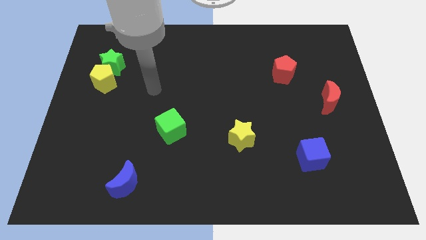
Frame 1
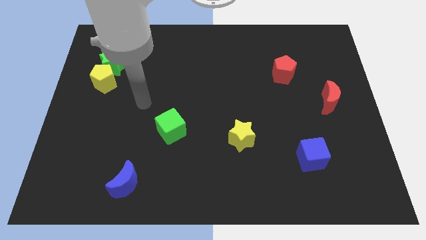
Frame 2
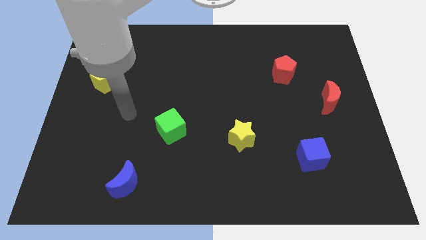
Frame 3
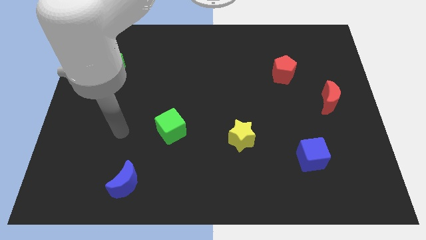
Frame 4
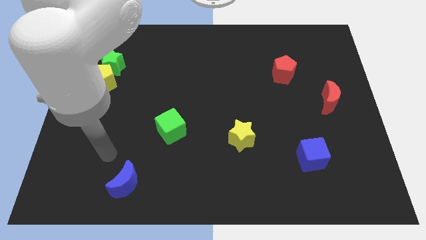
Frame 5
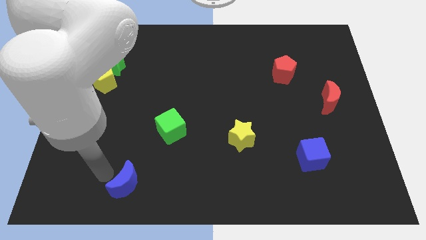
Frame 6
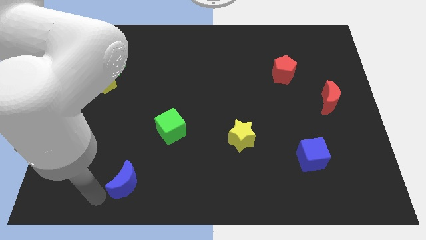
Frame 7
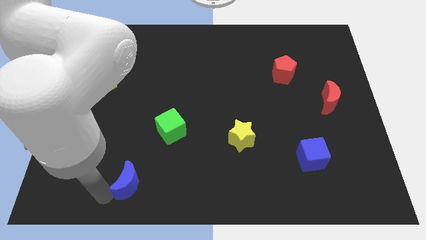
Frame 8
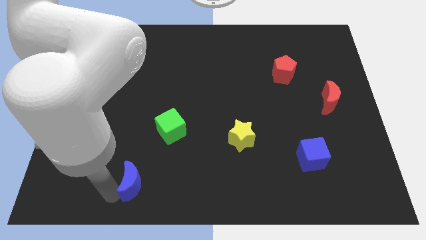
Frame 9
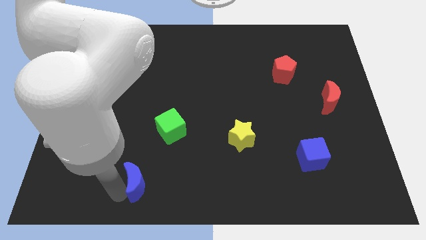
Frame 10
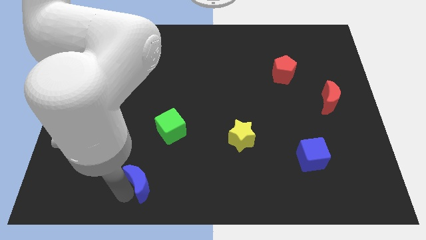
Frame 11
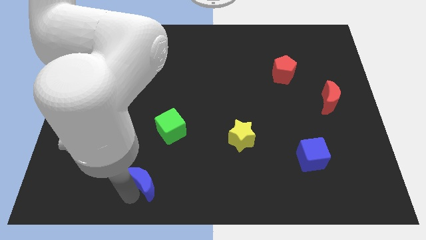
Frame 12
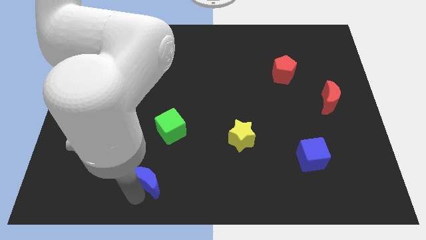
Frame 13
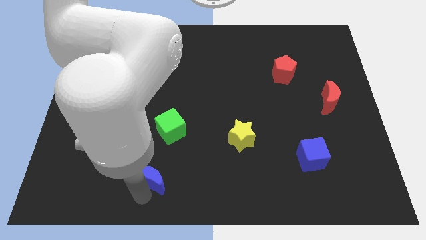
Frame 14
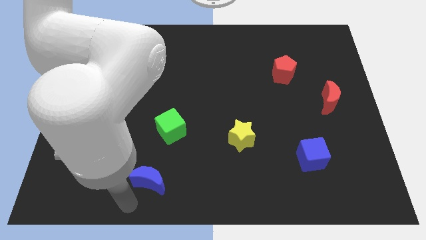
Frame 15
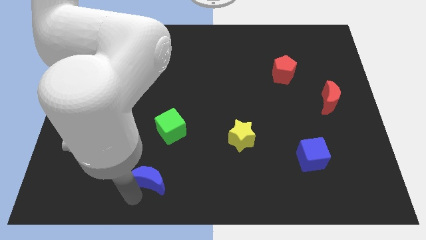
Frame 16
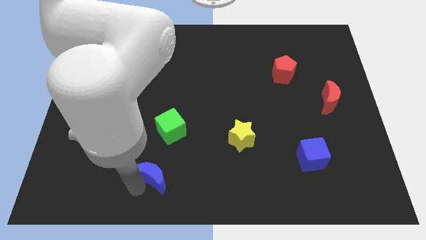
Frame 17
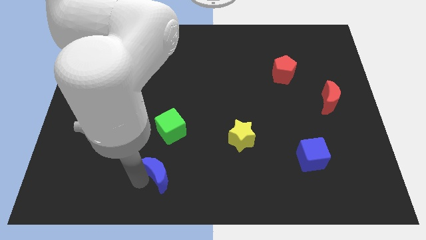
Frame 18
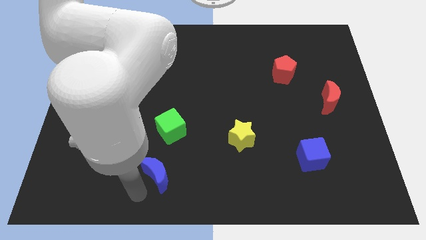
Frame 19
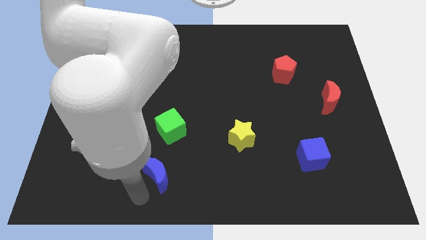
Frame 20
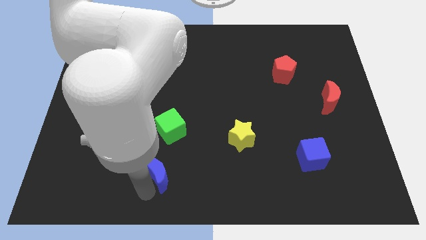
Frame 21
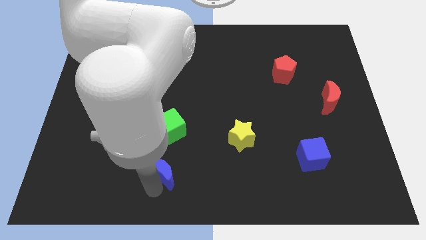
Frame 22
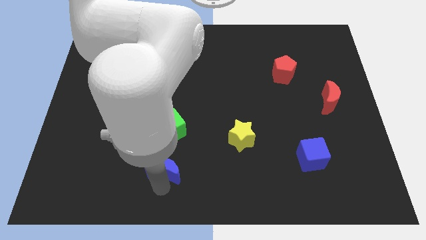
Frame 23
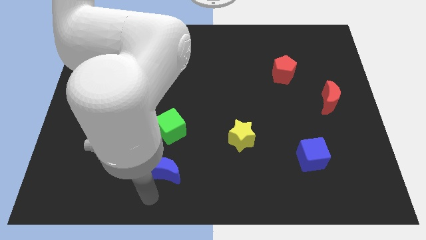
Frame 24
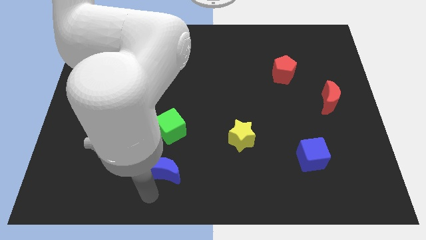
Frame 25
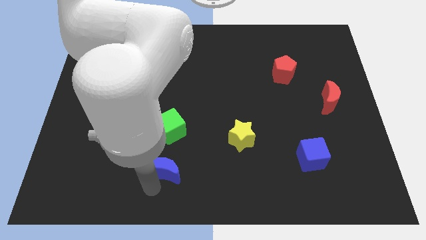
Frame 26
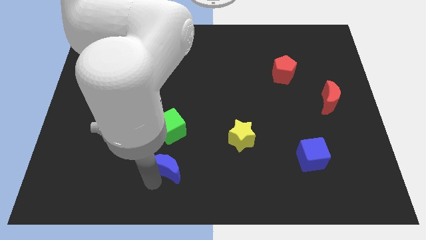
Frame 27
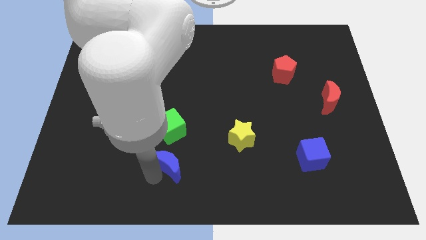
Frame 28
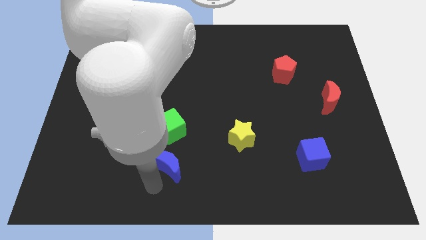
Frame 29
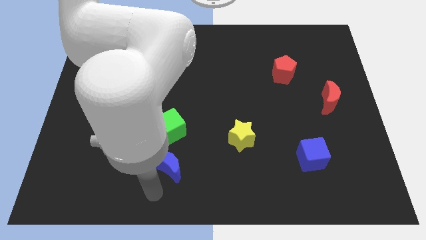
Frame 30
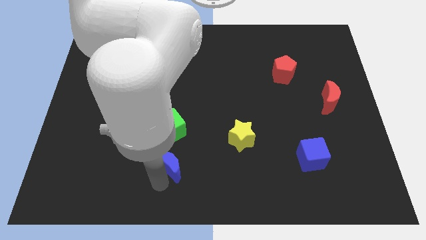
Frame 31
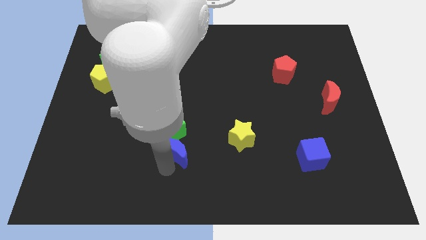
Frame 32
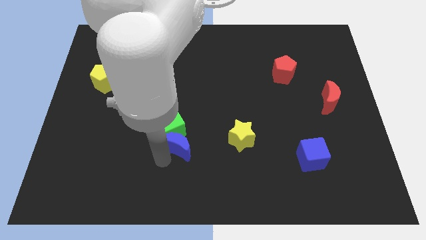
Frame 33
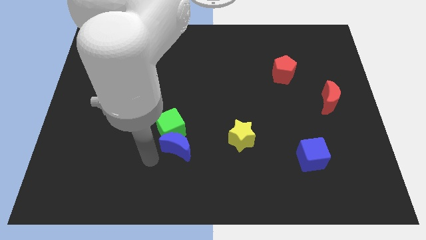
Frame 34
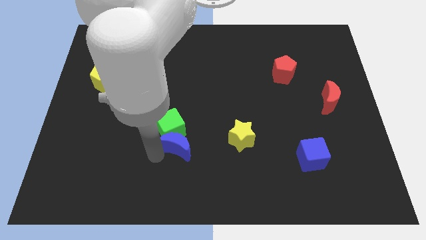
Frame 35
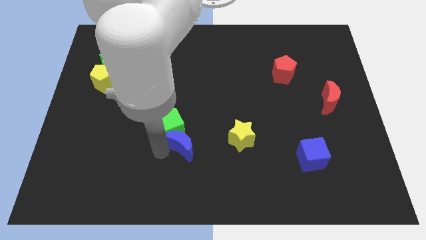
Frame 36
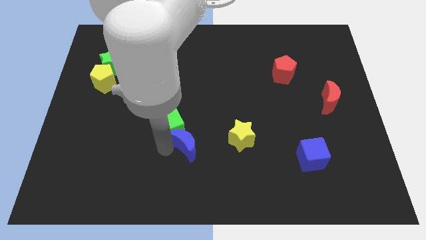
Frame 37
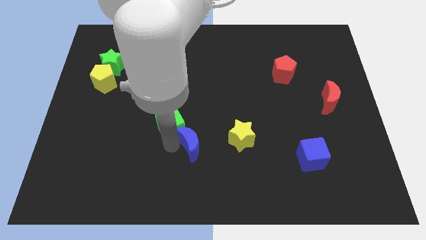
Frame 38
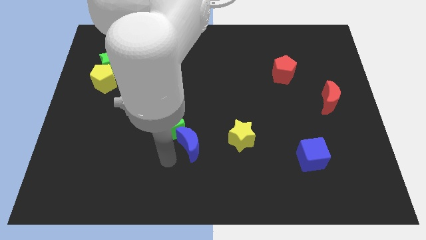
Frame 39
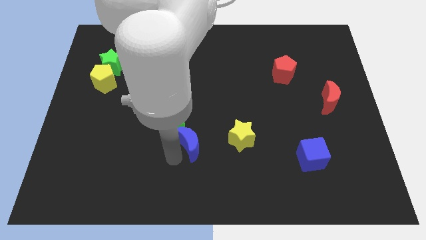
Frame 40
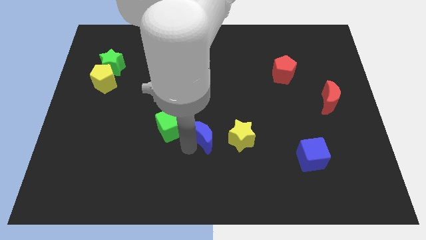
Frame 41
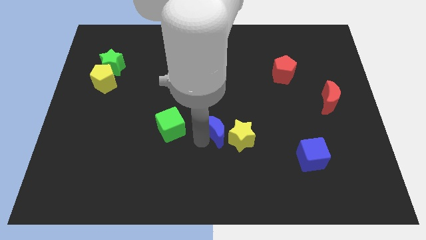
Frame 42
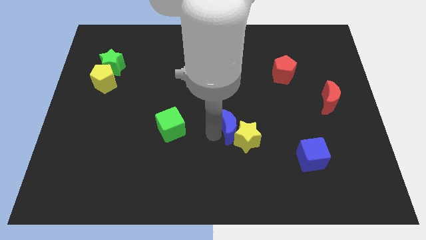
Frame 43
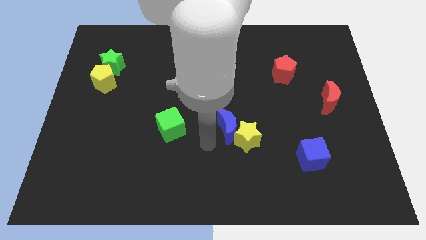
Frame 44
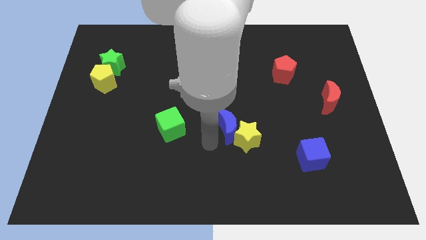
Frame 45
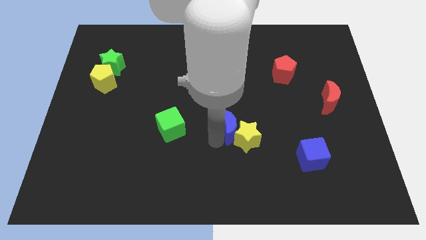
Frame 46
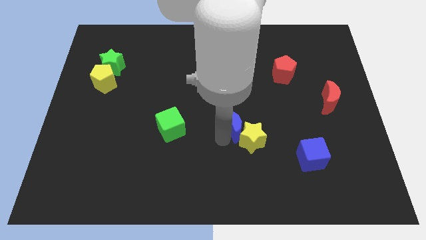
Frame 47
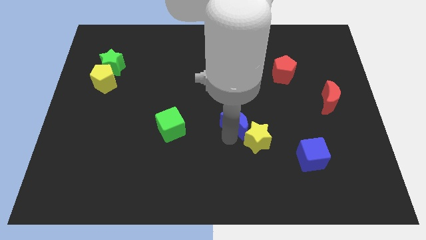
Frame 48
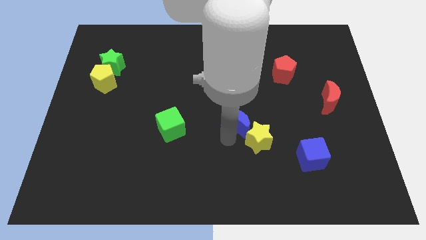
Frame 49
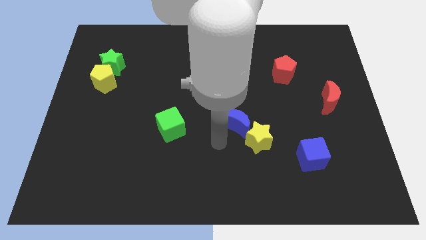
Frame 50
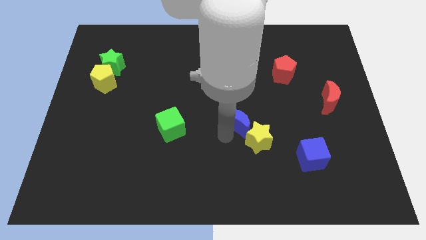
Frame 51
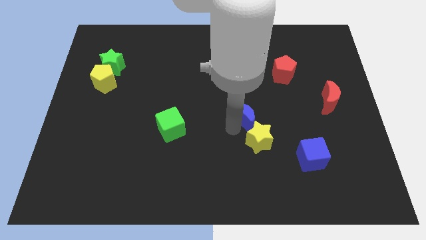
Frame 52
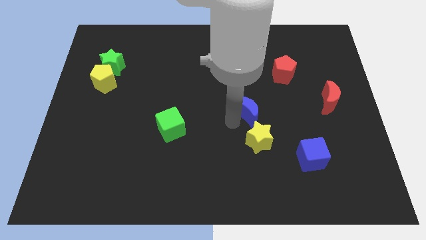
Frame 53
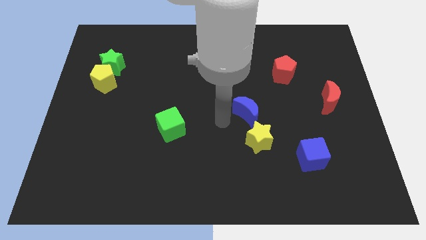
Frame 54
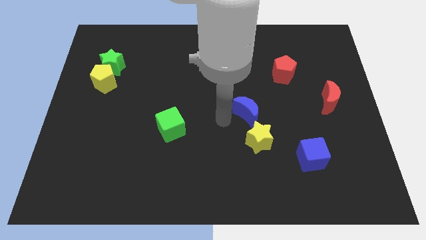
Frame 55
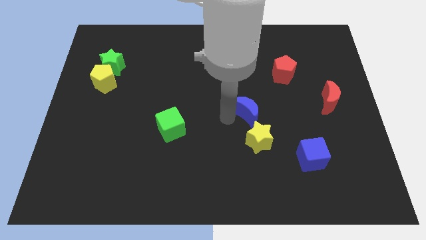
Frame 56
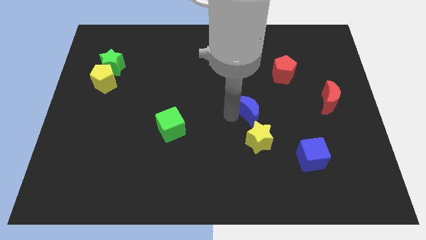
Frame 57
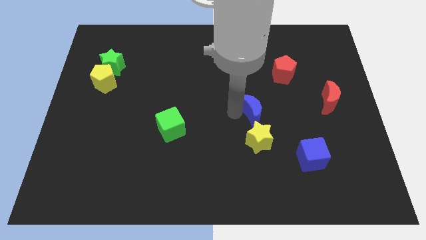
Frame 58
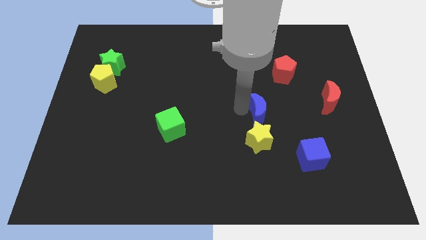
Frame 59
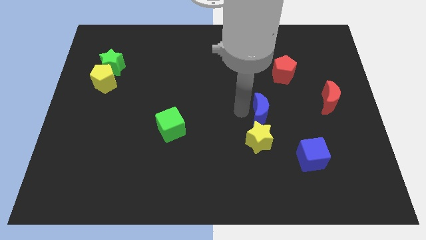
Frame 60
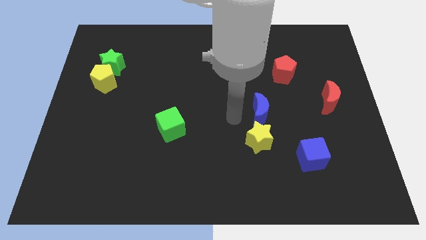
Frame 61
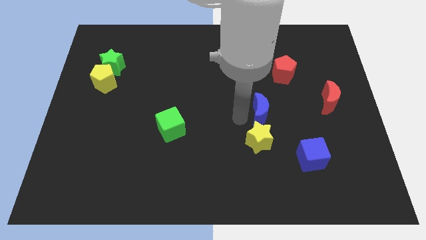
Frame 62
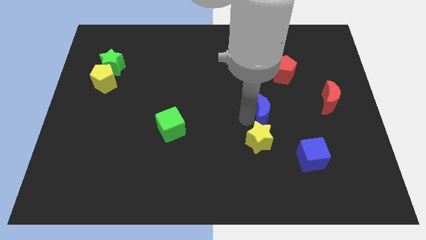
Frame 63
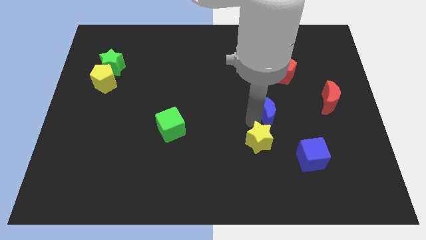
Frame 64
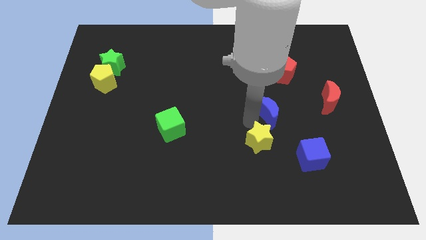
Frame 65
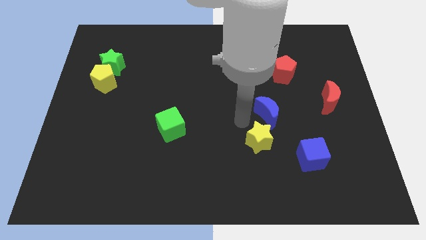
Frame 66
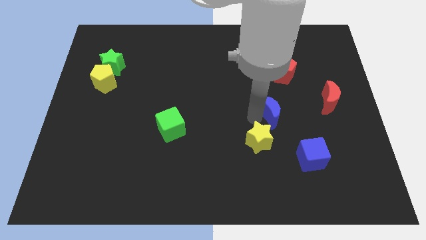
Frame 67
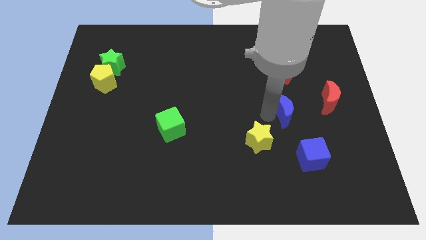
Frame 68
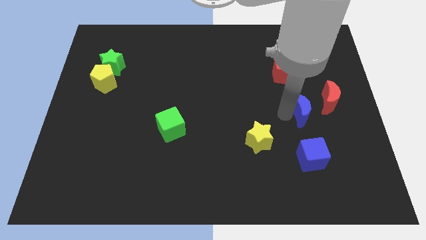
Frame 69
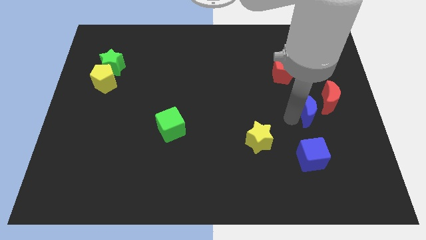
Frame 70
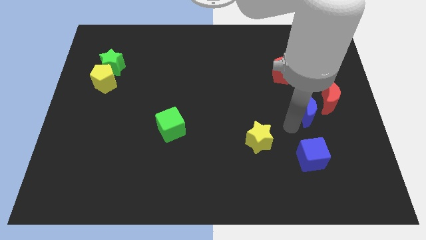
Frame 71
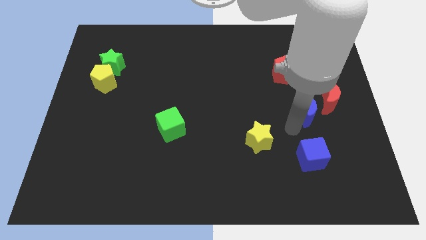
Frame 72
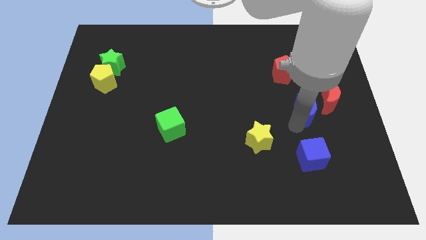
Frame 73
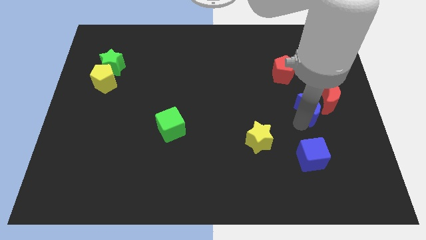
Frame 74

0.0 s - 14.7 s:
put the blue moon close to the red moon
